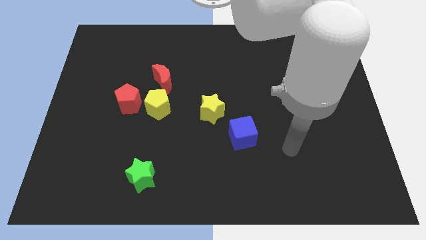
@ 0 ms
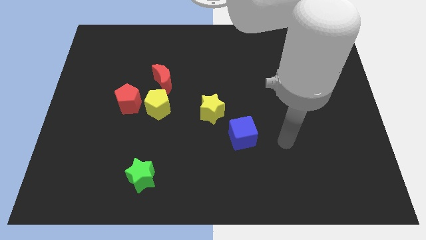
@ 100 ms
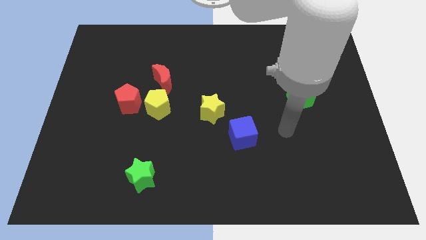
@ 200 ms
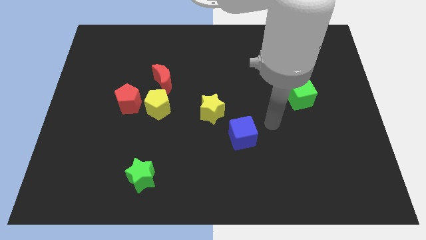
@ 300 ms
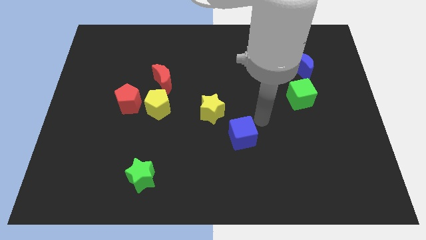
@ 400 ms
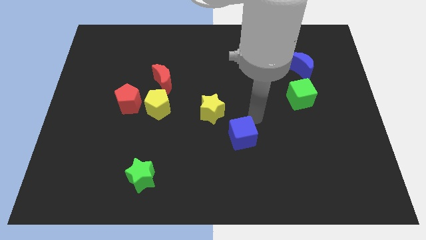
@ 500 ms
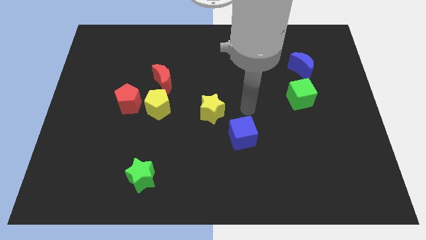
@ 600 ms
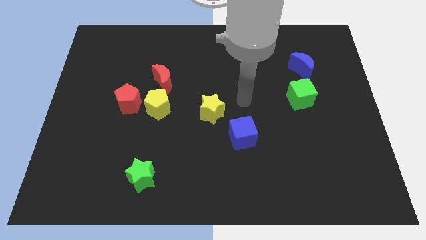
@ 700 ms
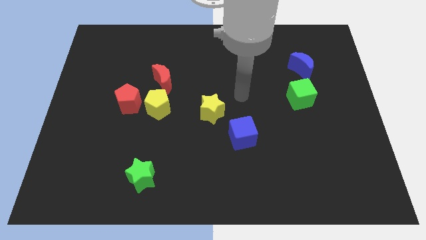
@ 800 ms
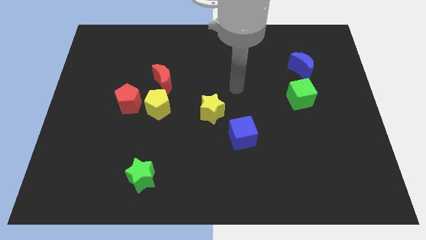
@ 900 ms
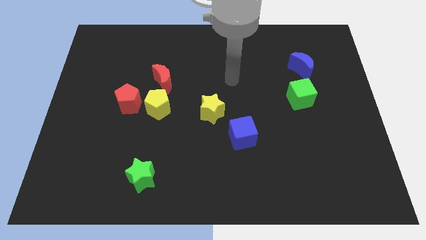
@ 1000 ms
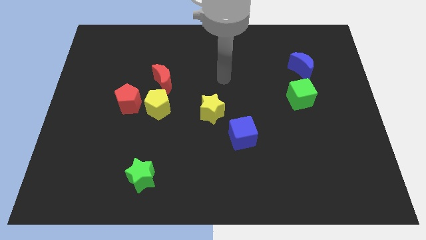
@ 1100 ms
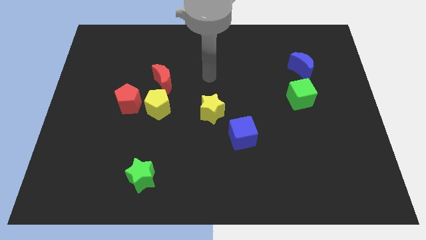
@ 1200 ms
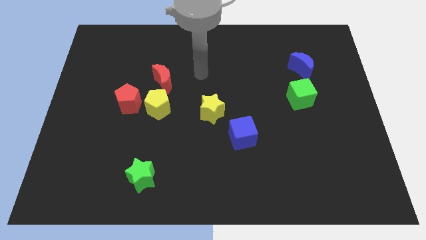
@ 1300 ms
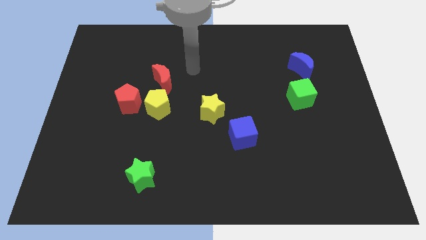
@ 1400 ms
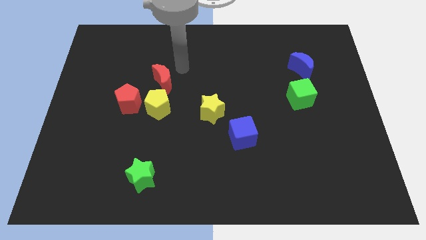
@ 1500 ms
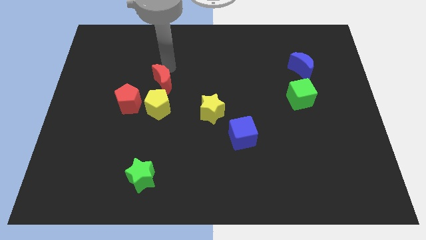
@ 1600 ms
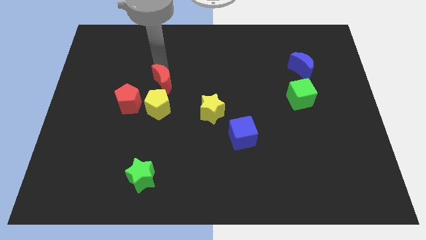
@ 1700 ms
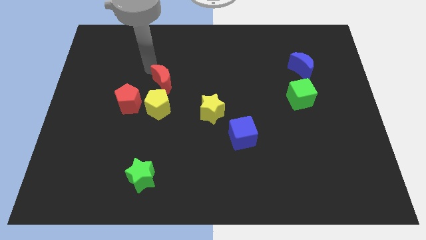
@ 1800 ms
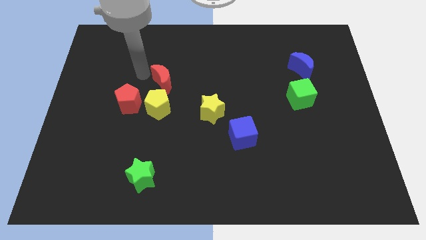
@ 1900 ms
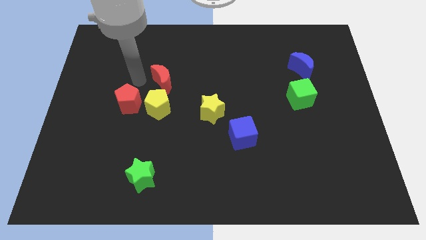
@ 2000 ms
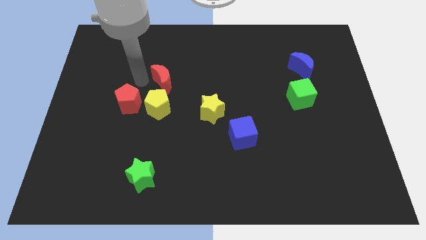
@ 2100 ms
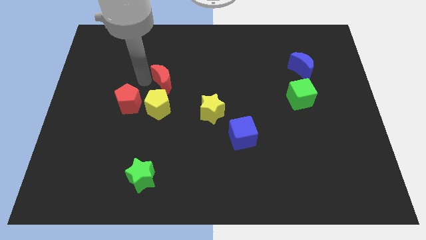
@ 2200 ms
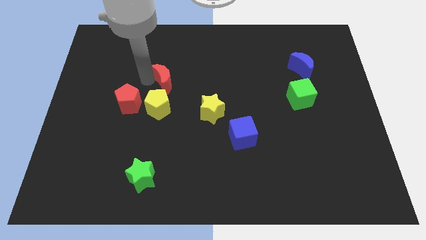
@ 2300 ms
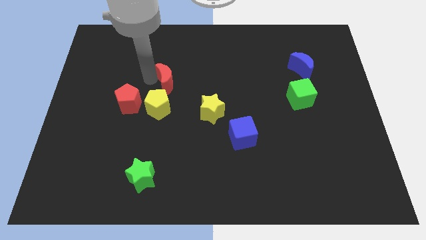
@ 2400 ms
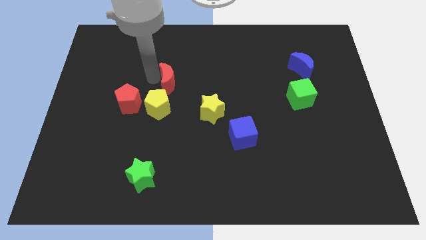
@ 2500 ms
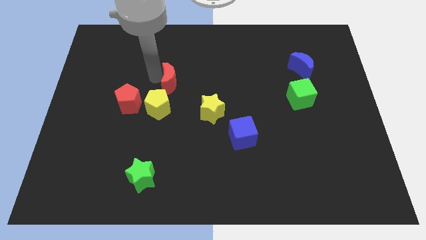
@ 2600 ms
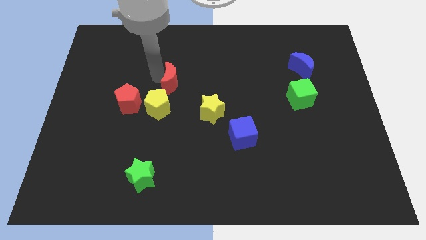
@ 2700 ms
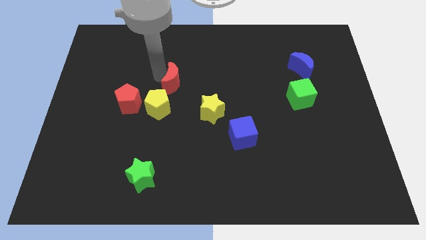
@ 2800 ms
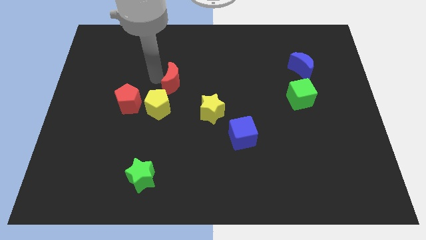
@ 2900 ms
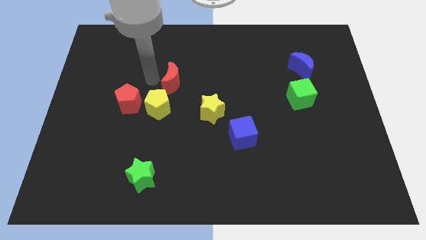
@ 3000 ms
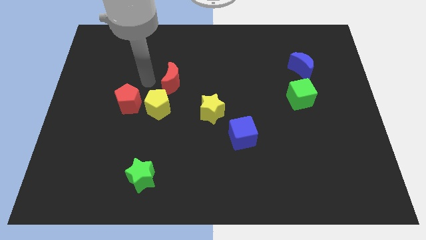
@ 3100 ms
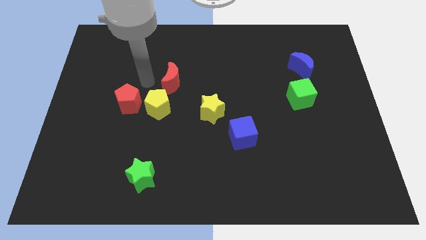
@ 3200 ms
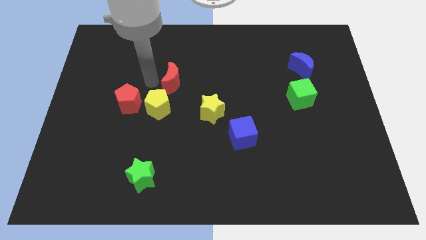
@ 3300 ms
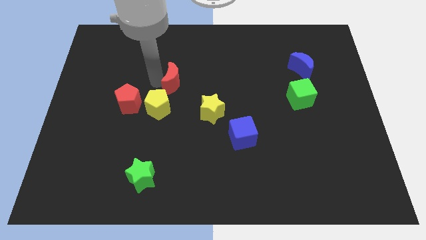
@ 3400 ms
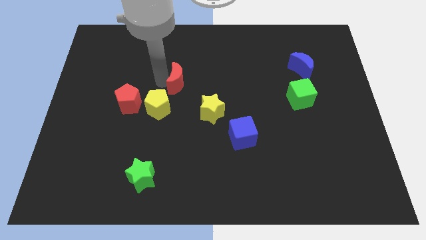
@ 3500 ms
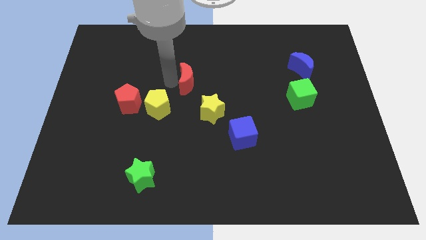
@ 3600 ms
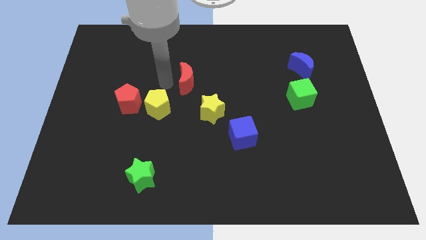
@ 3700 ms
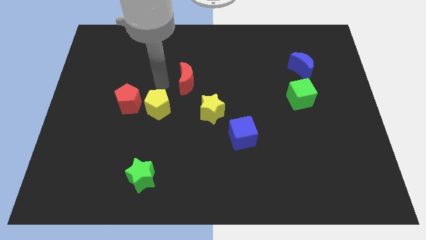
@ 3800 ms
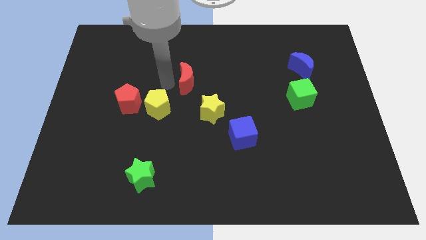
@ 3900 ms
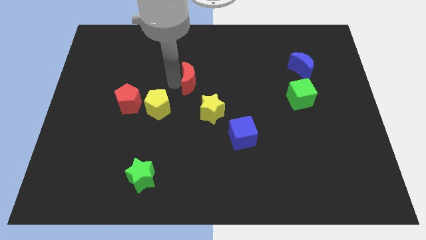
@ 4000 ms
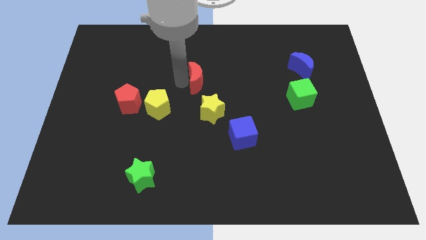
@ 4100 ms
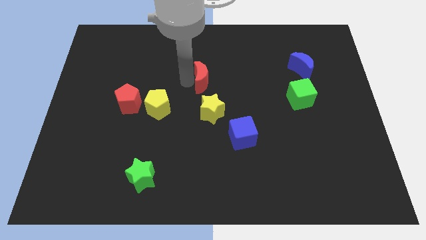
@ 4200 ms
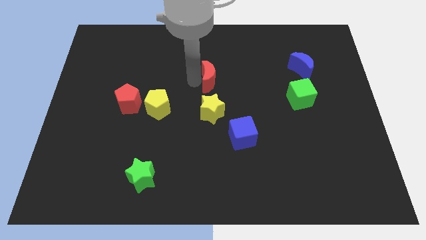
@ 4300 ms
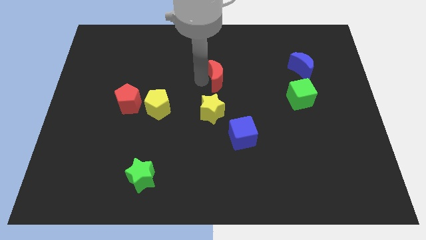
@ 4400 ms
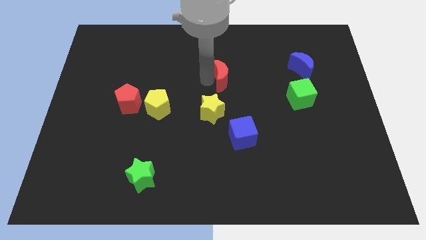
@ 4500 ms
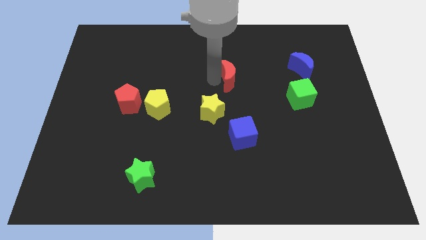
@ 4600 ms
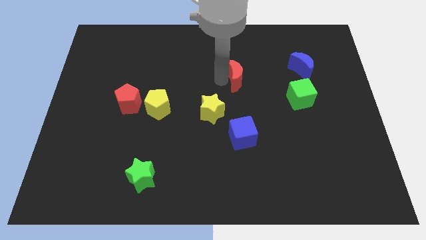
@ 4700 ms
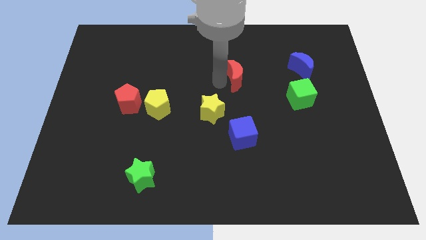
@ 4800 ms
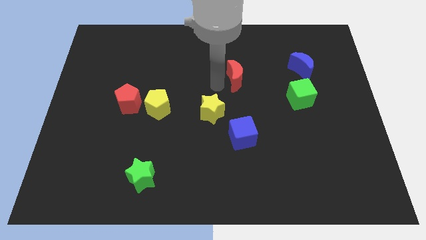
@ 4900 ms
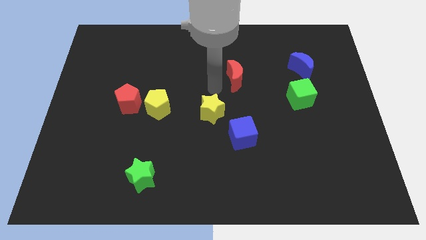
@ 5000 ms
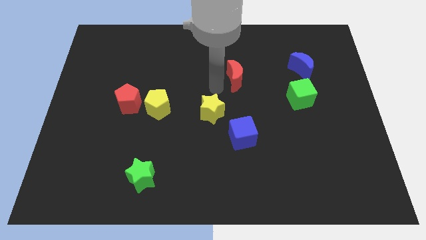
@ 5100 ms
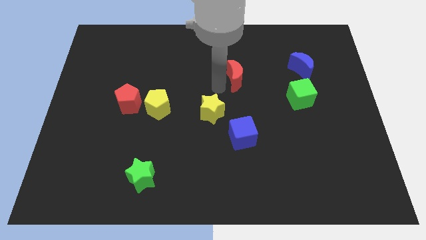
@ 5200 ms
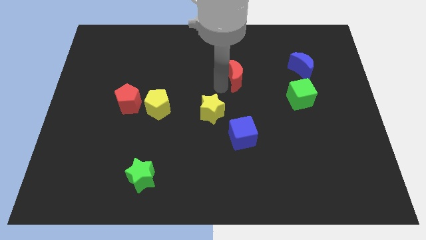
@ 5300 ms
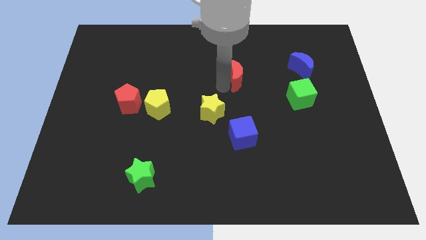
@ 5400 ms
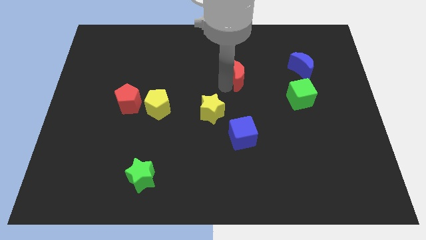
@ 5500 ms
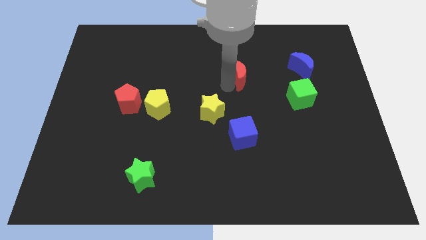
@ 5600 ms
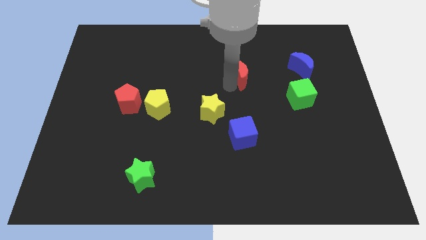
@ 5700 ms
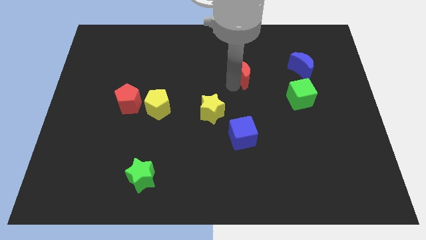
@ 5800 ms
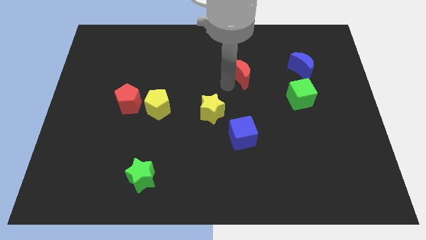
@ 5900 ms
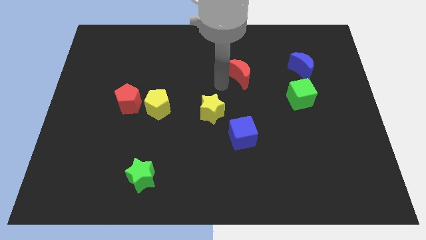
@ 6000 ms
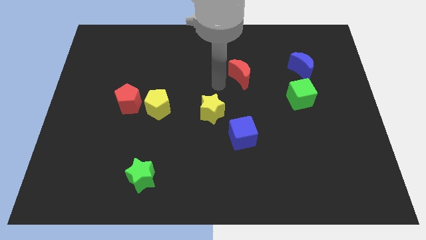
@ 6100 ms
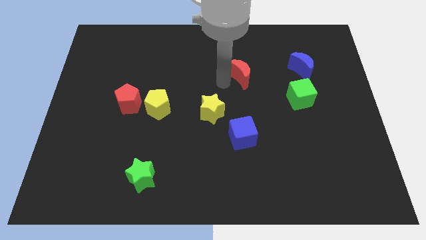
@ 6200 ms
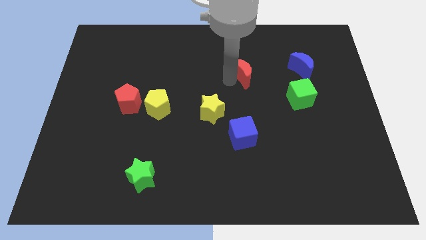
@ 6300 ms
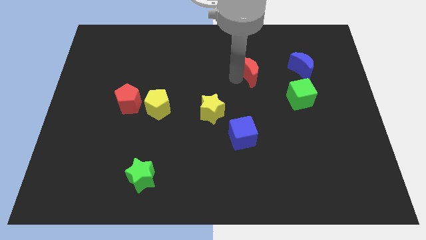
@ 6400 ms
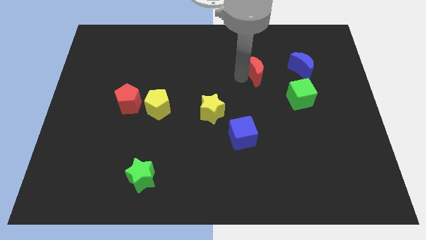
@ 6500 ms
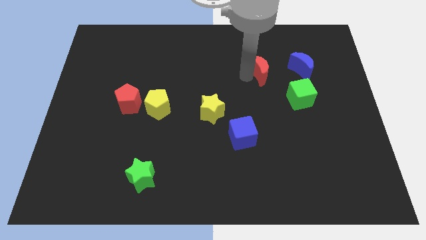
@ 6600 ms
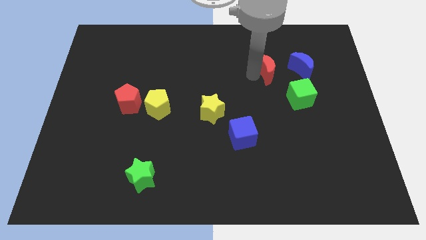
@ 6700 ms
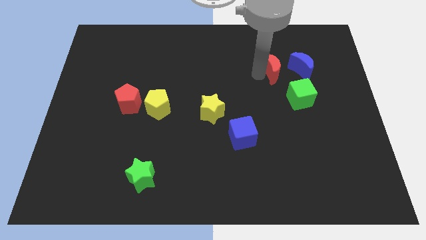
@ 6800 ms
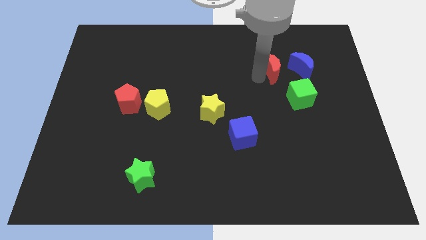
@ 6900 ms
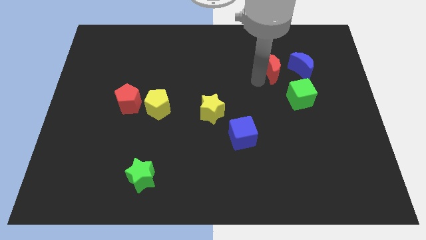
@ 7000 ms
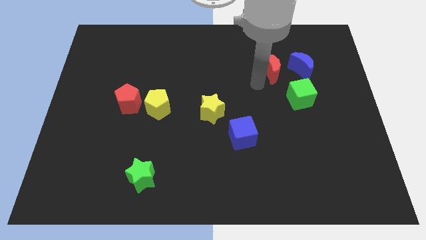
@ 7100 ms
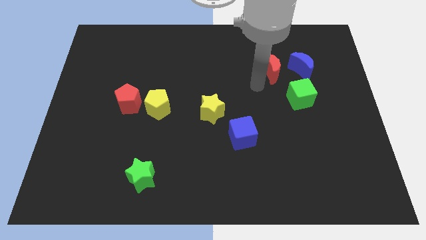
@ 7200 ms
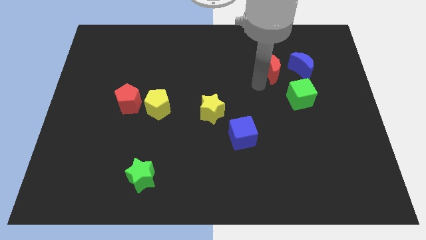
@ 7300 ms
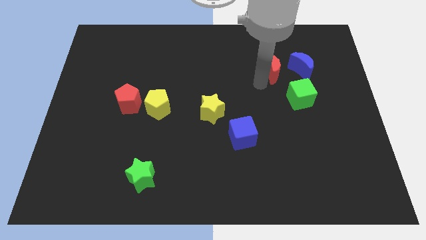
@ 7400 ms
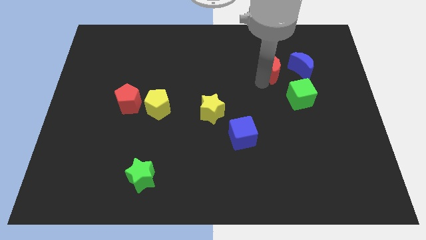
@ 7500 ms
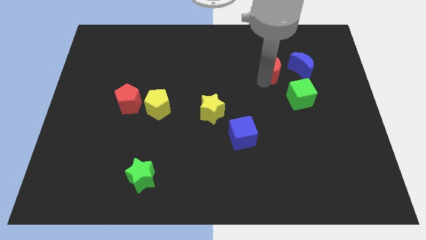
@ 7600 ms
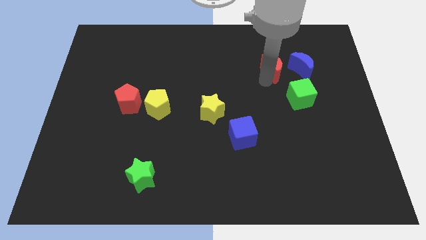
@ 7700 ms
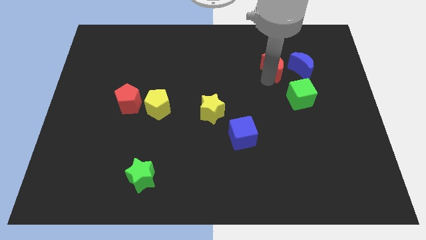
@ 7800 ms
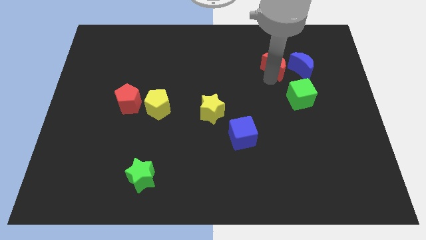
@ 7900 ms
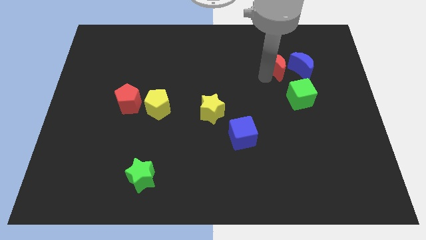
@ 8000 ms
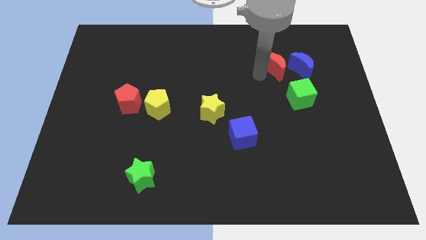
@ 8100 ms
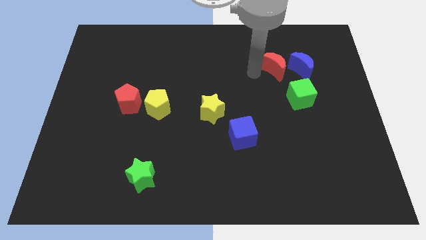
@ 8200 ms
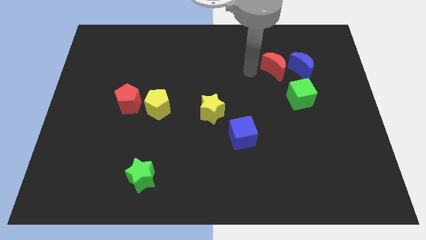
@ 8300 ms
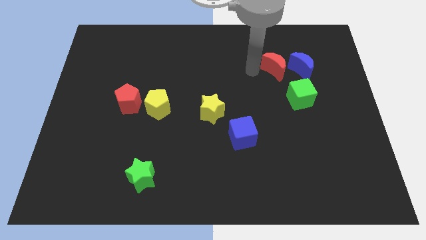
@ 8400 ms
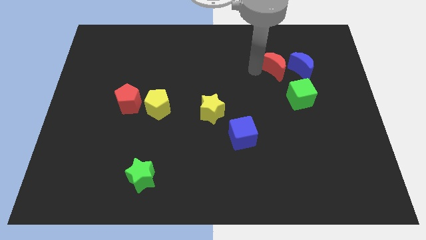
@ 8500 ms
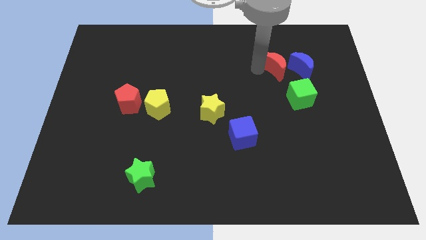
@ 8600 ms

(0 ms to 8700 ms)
slide the red moon to the top of the green cube
